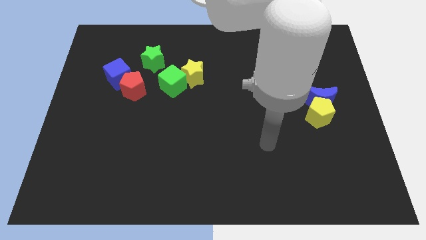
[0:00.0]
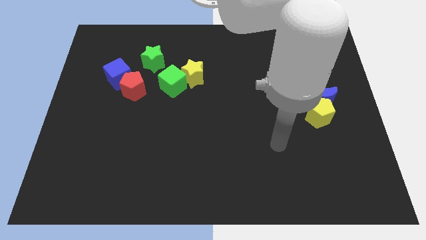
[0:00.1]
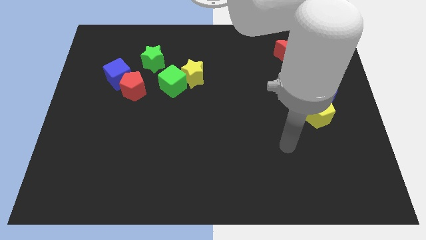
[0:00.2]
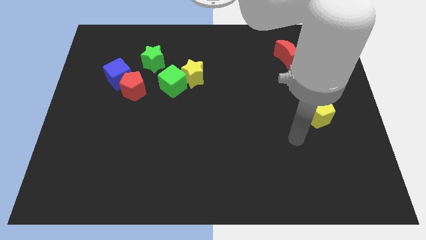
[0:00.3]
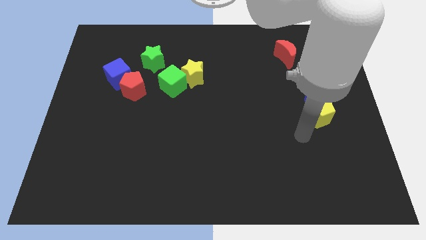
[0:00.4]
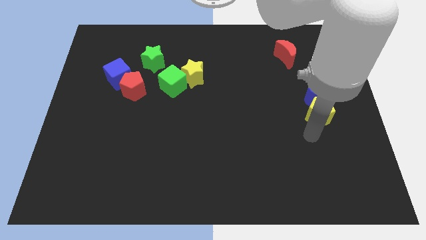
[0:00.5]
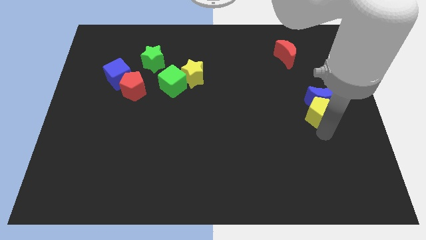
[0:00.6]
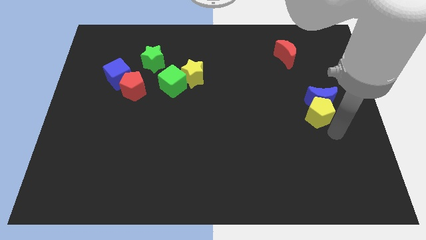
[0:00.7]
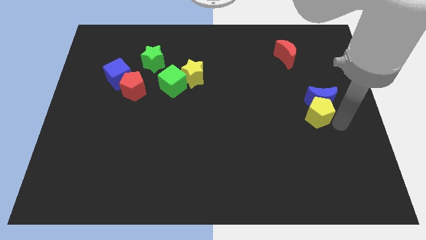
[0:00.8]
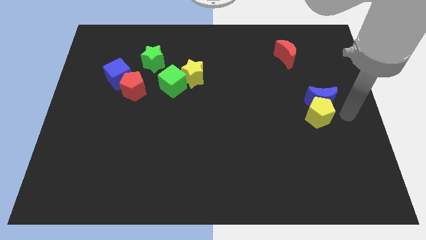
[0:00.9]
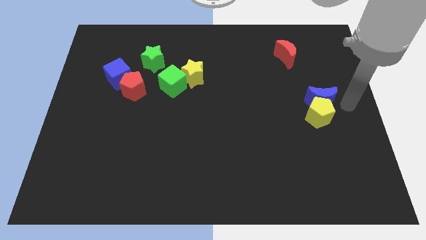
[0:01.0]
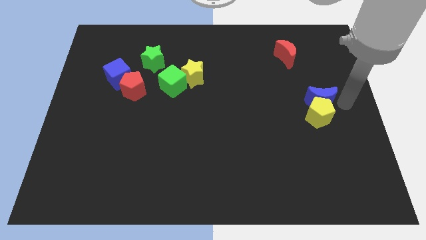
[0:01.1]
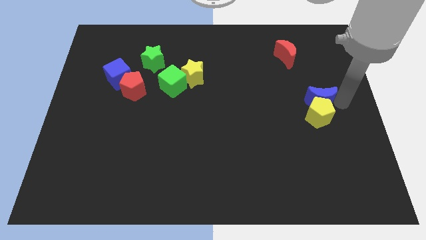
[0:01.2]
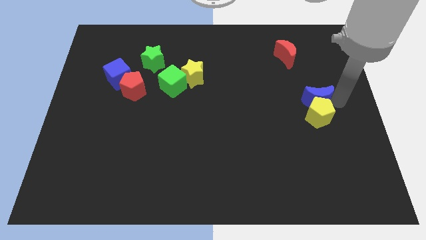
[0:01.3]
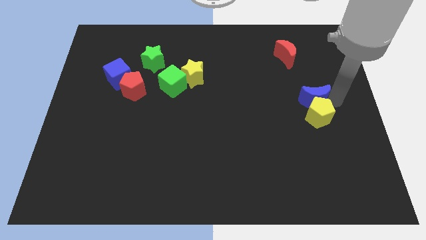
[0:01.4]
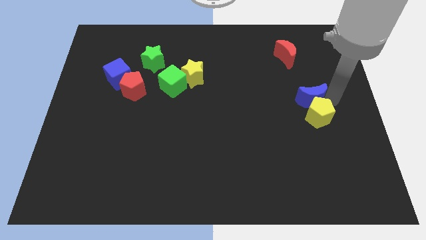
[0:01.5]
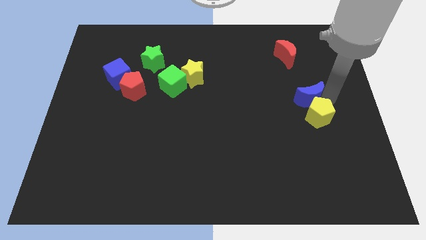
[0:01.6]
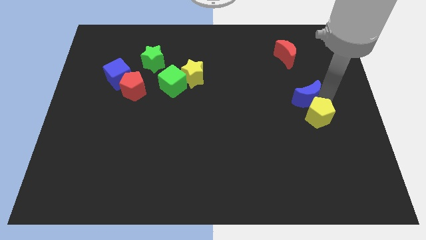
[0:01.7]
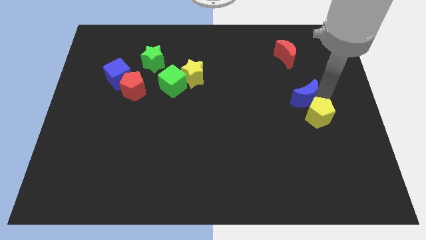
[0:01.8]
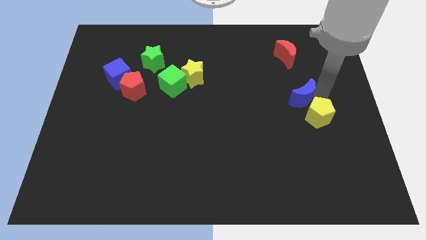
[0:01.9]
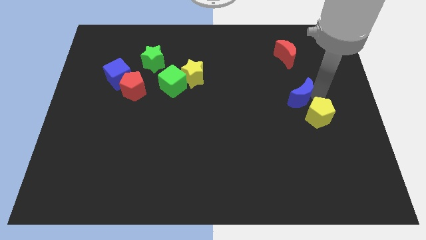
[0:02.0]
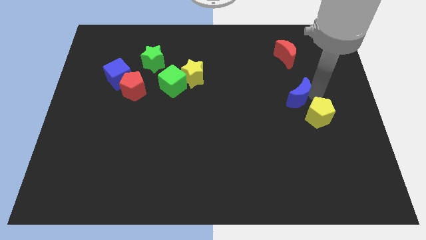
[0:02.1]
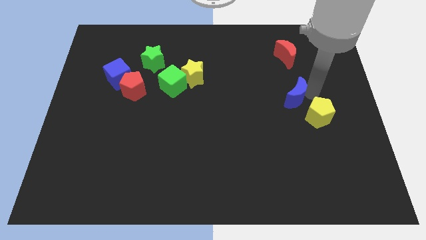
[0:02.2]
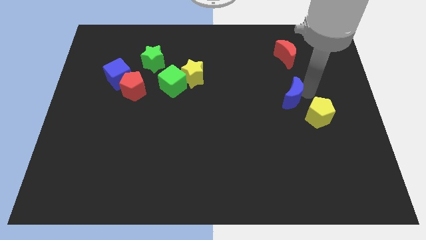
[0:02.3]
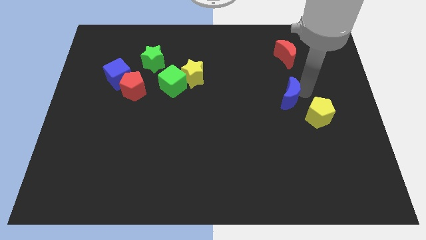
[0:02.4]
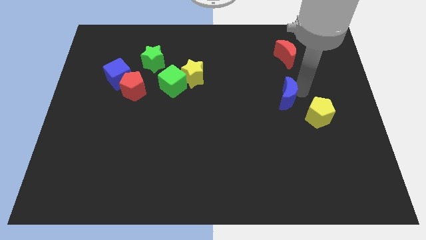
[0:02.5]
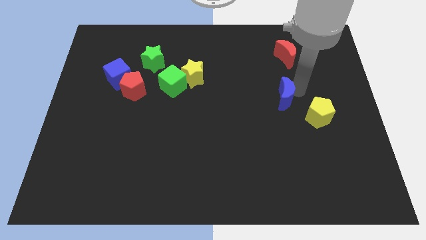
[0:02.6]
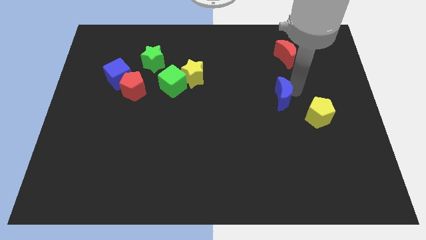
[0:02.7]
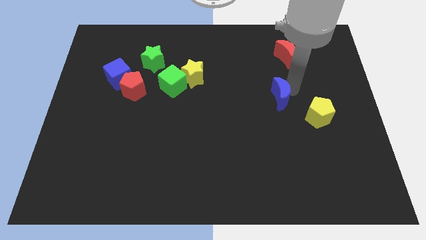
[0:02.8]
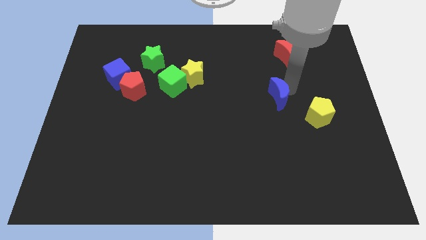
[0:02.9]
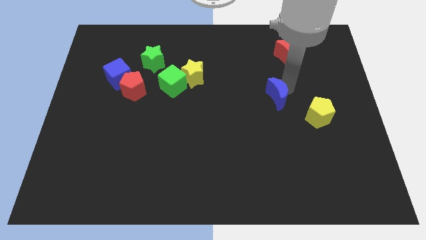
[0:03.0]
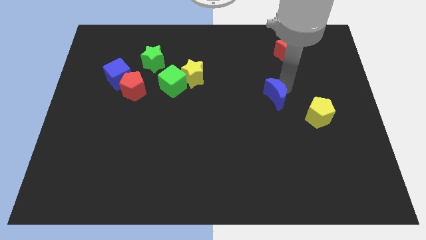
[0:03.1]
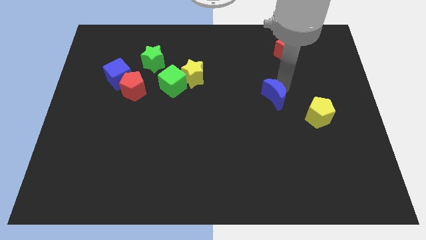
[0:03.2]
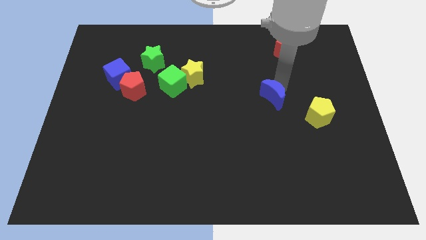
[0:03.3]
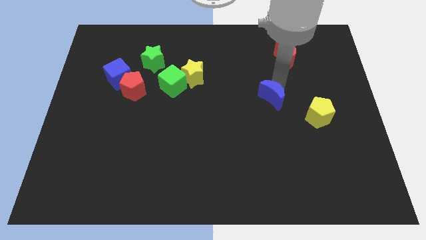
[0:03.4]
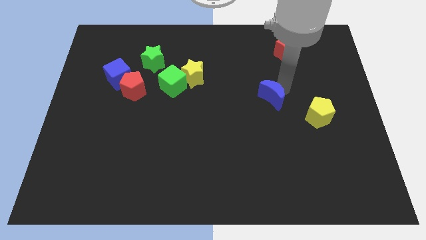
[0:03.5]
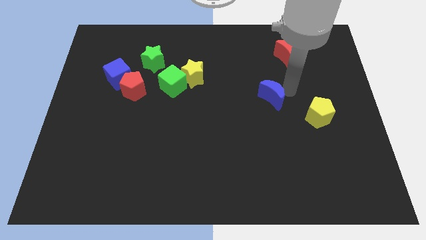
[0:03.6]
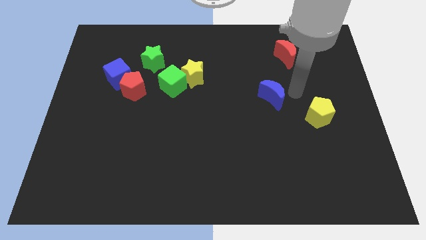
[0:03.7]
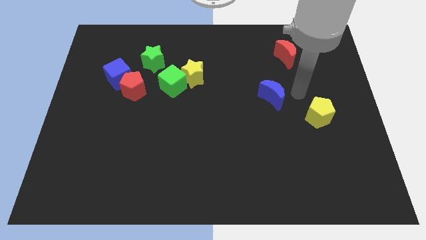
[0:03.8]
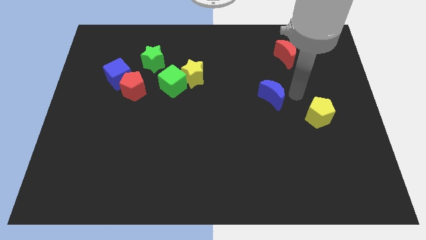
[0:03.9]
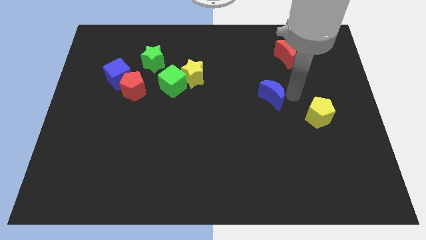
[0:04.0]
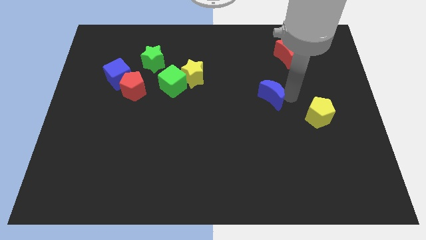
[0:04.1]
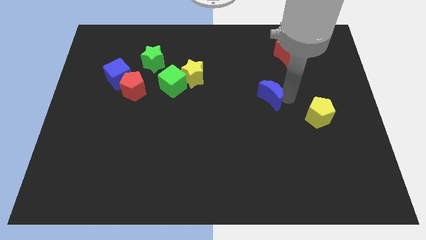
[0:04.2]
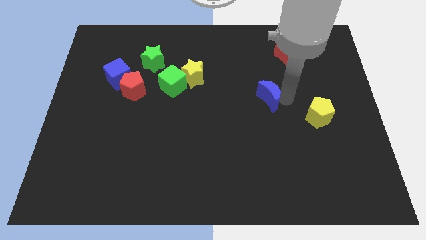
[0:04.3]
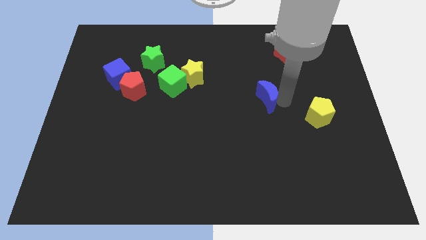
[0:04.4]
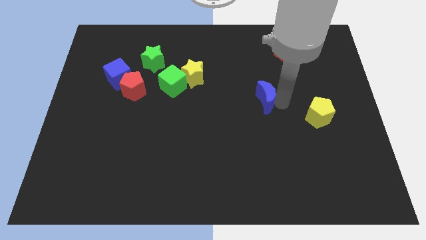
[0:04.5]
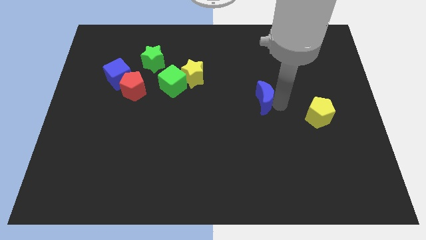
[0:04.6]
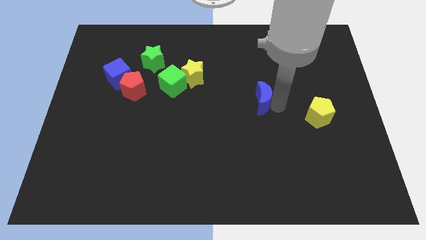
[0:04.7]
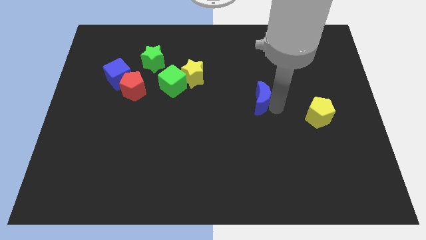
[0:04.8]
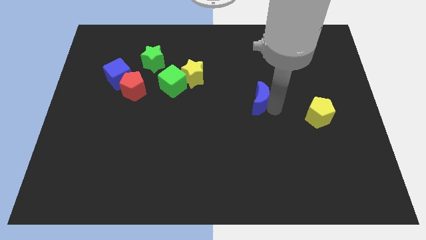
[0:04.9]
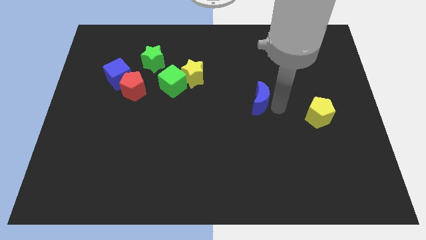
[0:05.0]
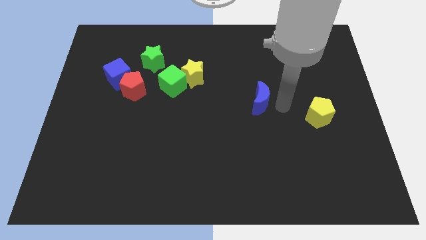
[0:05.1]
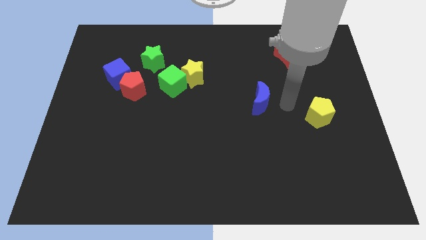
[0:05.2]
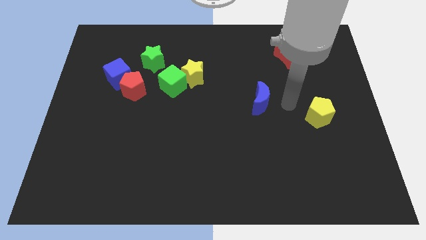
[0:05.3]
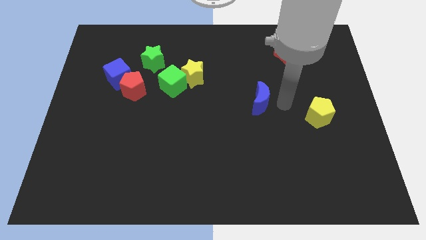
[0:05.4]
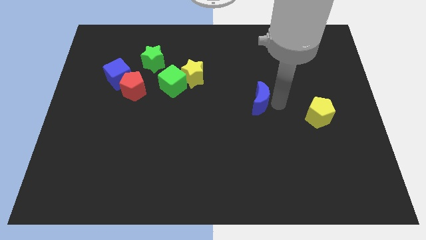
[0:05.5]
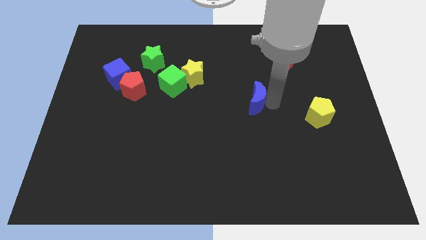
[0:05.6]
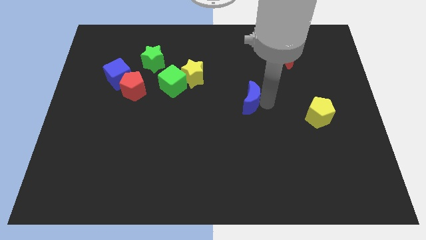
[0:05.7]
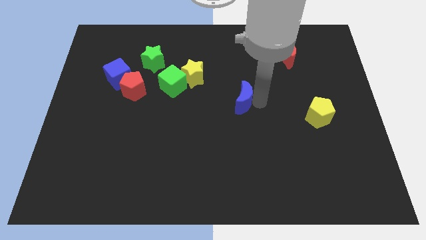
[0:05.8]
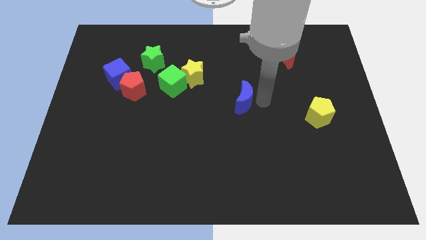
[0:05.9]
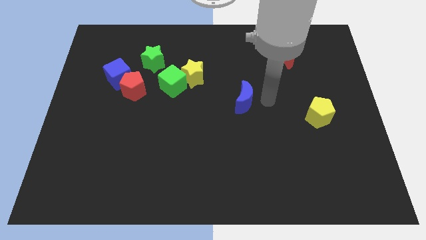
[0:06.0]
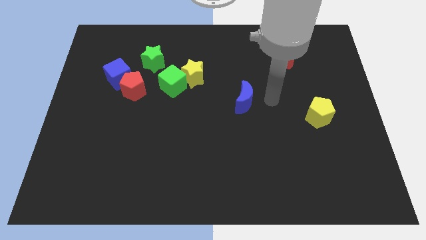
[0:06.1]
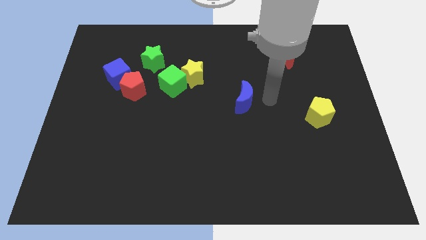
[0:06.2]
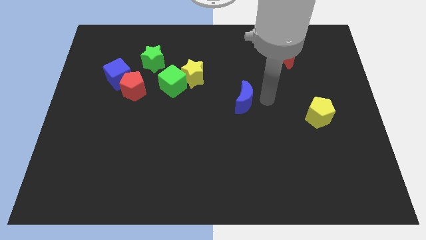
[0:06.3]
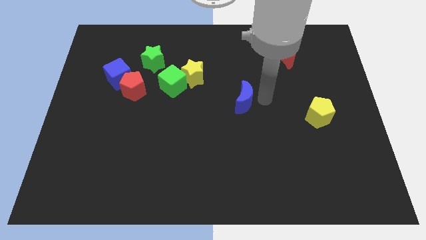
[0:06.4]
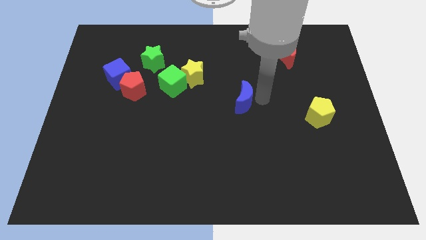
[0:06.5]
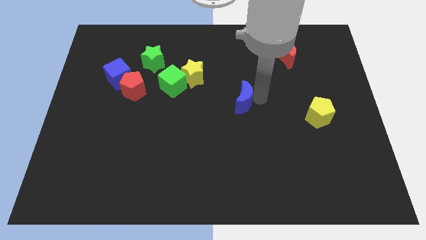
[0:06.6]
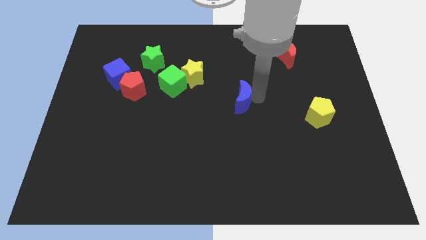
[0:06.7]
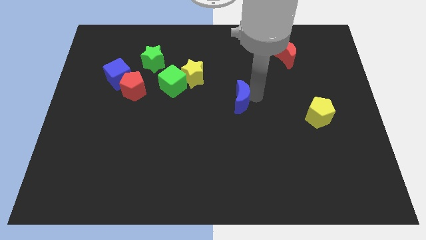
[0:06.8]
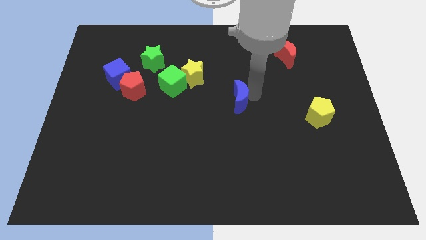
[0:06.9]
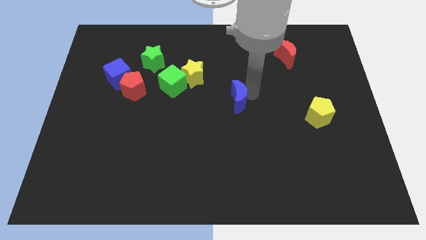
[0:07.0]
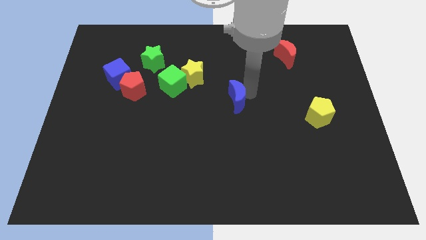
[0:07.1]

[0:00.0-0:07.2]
slide the blue moon left

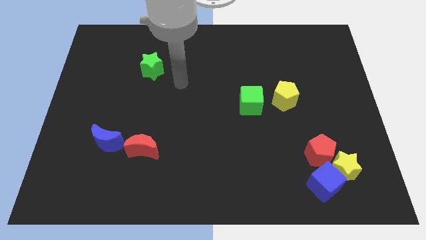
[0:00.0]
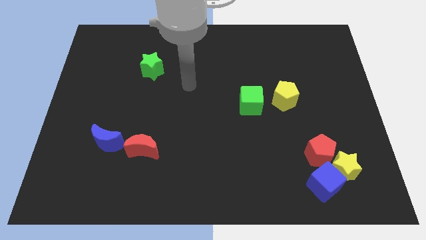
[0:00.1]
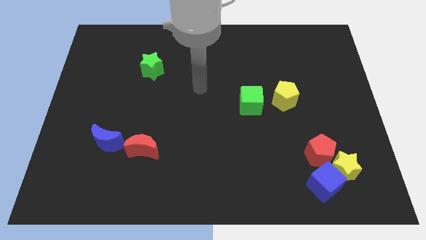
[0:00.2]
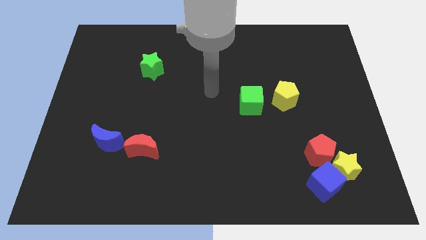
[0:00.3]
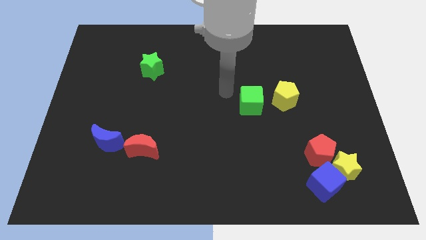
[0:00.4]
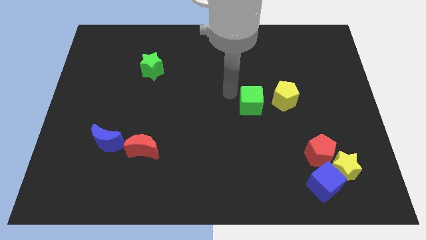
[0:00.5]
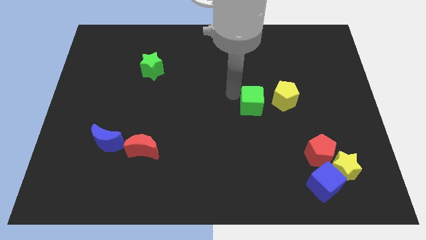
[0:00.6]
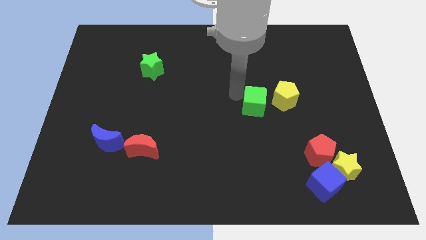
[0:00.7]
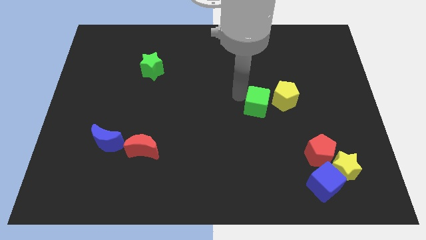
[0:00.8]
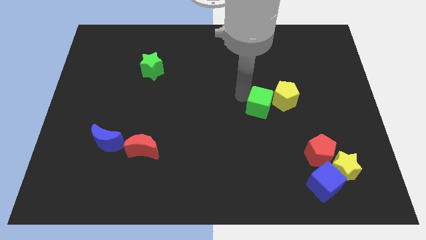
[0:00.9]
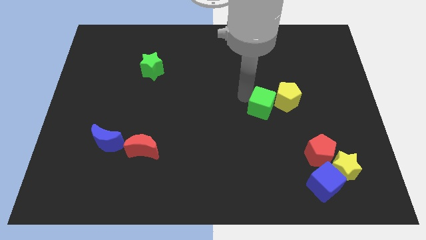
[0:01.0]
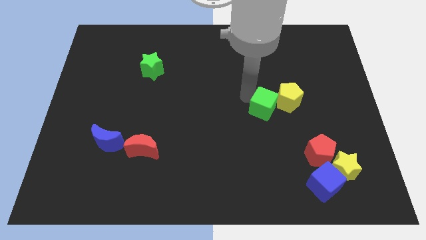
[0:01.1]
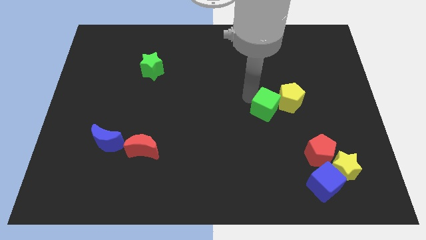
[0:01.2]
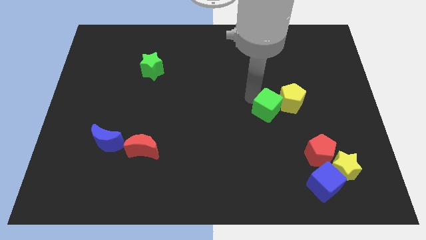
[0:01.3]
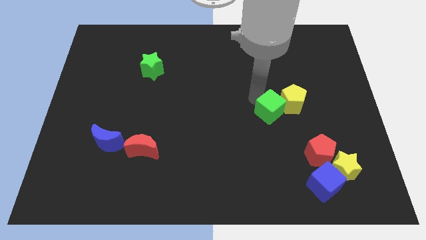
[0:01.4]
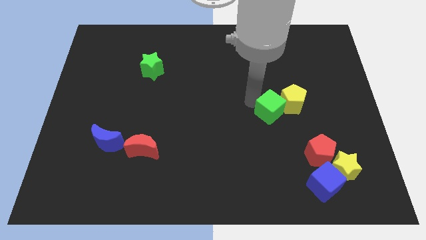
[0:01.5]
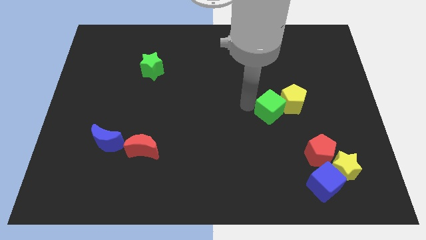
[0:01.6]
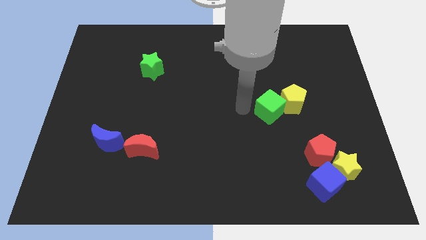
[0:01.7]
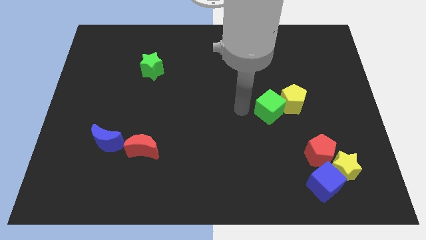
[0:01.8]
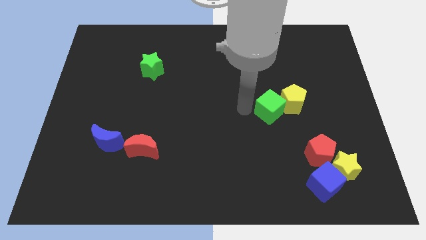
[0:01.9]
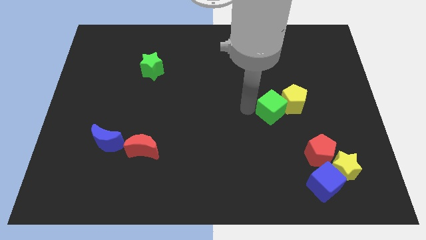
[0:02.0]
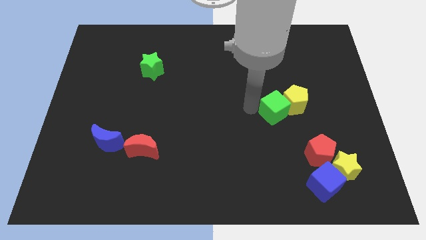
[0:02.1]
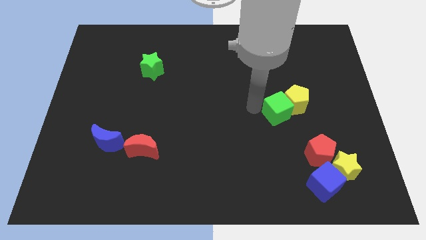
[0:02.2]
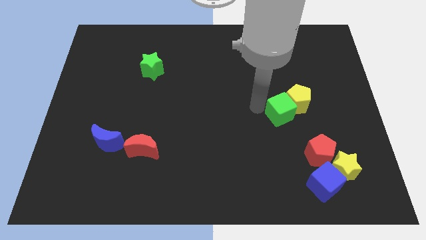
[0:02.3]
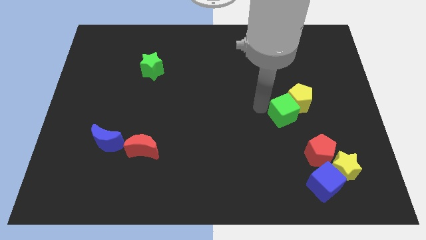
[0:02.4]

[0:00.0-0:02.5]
slide the green cube to the right somewhat
